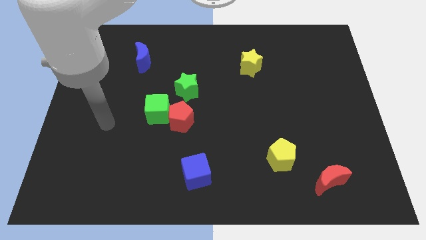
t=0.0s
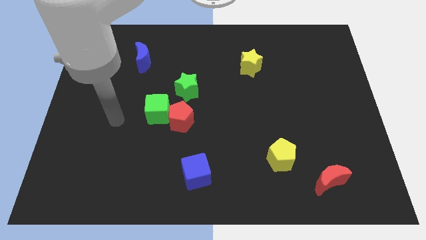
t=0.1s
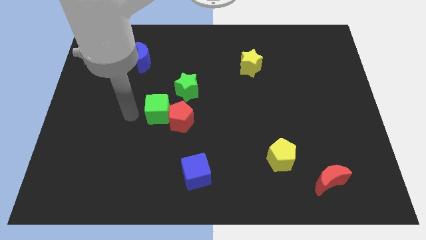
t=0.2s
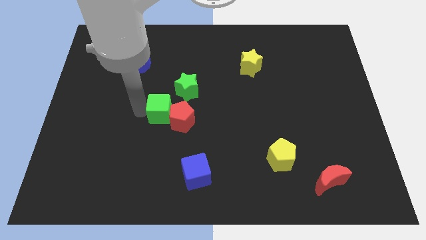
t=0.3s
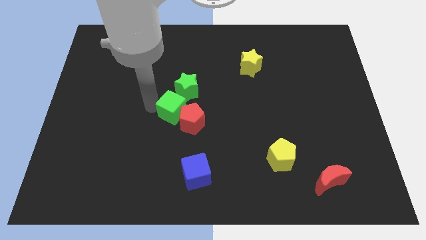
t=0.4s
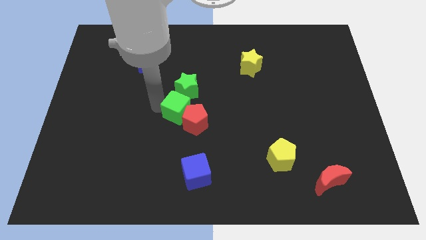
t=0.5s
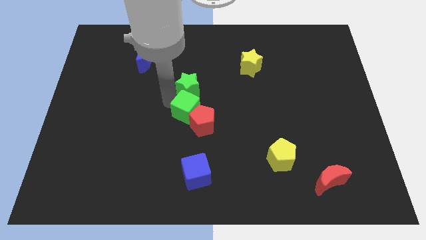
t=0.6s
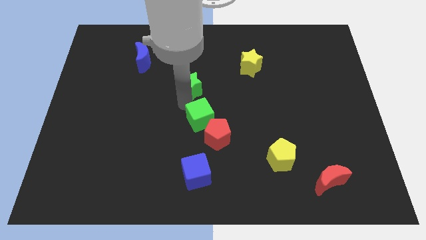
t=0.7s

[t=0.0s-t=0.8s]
separate the red pentagon from the green cube and green star

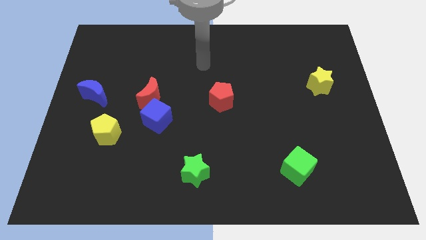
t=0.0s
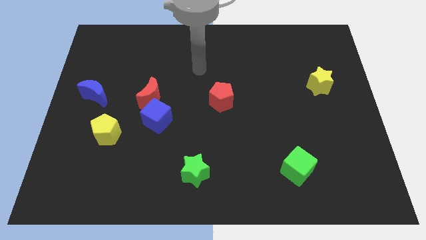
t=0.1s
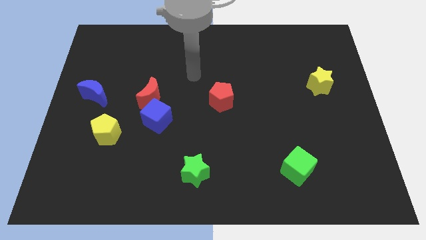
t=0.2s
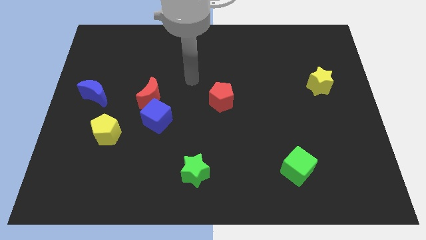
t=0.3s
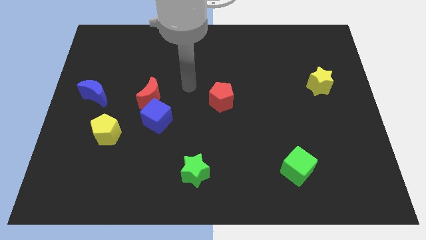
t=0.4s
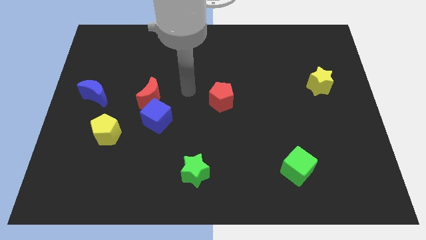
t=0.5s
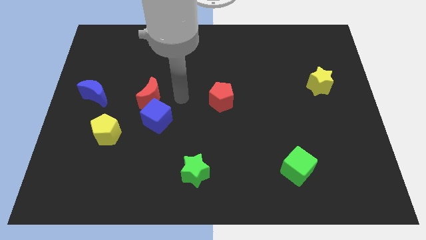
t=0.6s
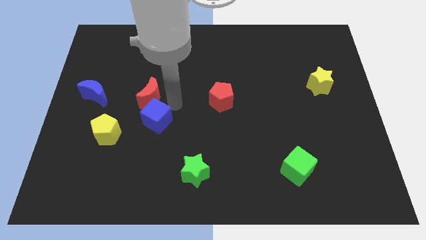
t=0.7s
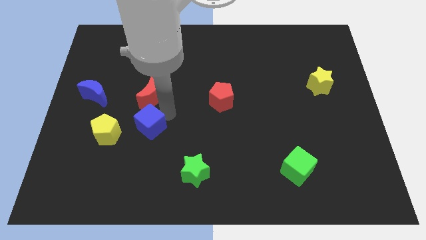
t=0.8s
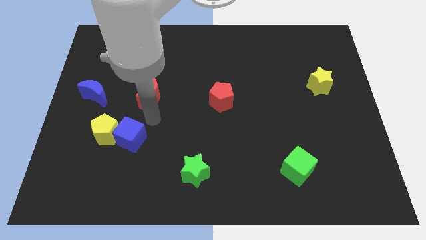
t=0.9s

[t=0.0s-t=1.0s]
pull the red moon apart from the blue cube

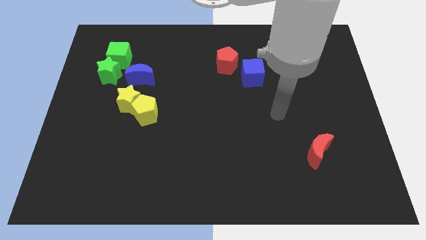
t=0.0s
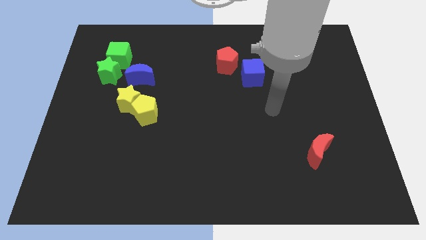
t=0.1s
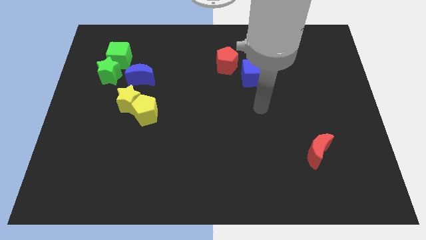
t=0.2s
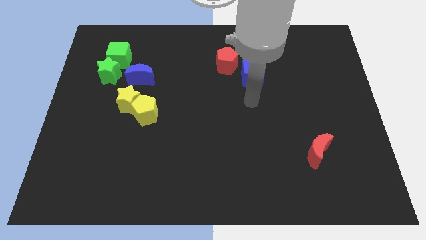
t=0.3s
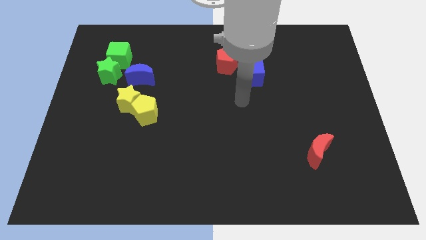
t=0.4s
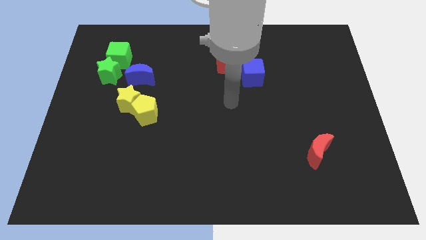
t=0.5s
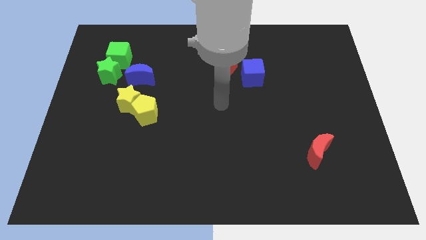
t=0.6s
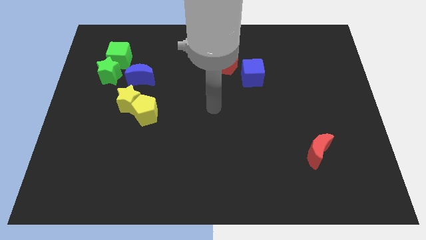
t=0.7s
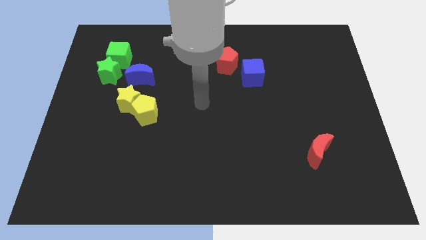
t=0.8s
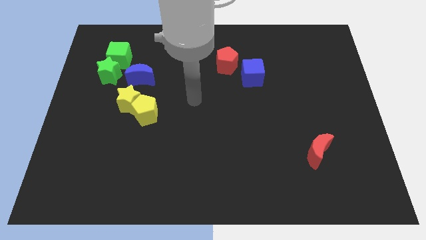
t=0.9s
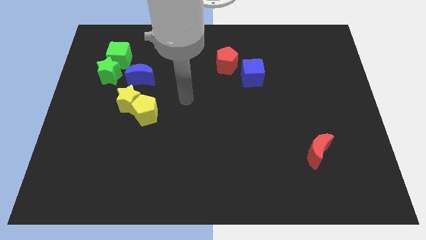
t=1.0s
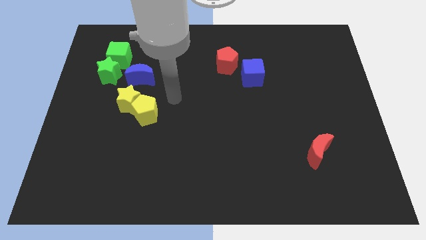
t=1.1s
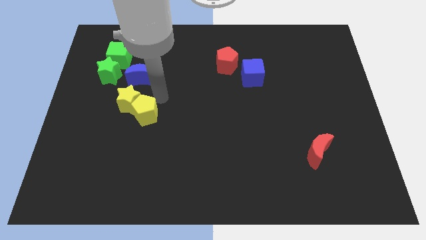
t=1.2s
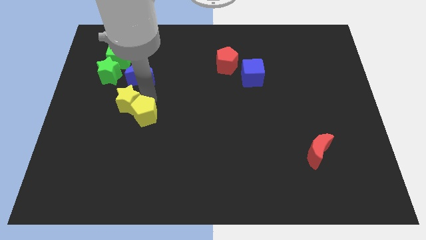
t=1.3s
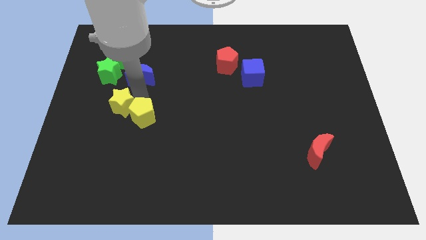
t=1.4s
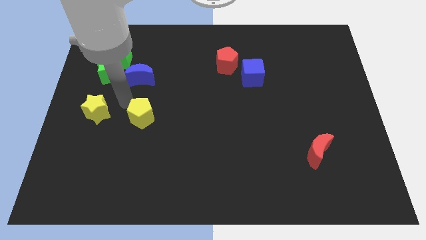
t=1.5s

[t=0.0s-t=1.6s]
move the yellow pentagon away from the yellow star

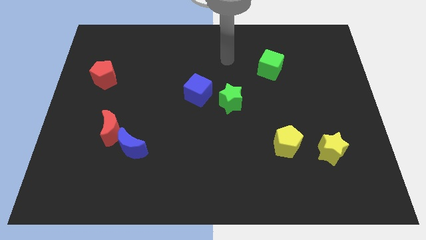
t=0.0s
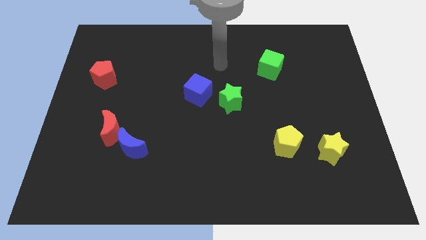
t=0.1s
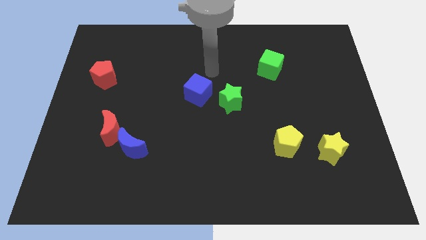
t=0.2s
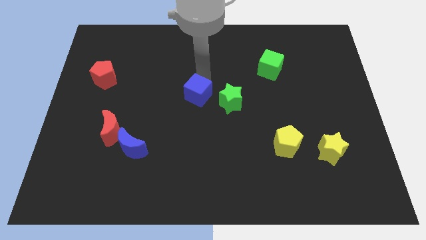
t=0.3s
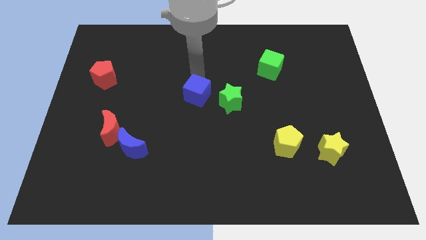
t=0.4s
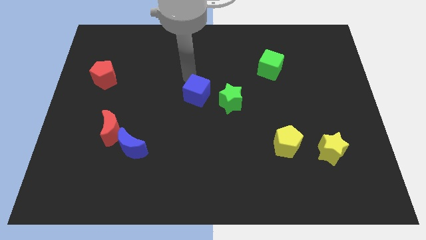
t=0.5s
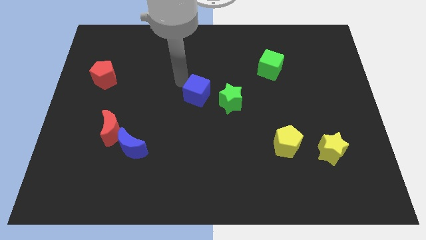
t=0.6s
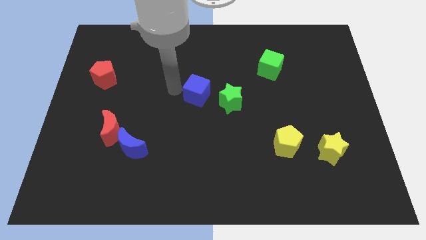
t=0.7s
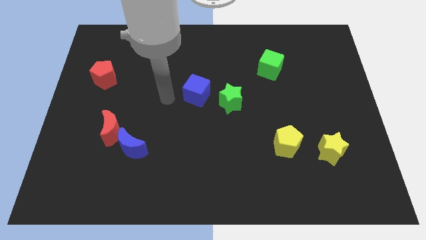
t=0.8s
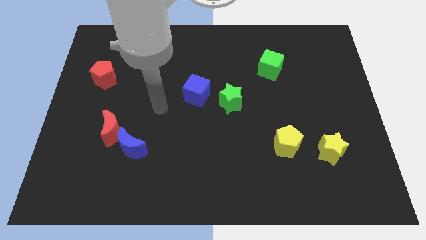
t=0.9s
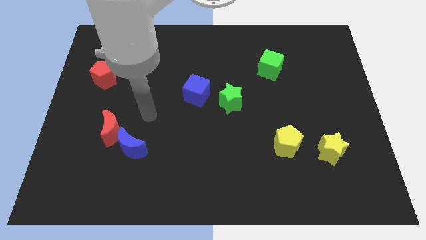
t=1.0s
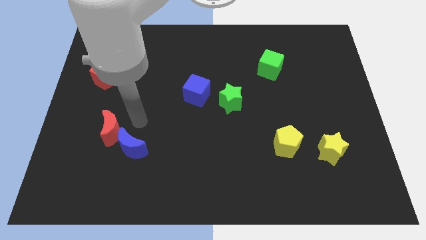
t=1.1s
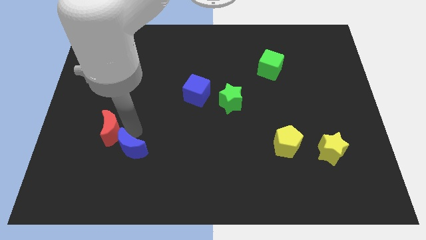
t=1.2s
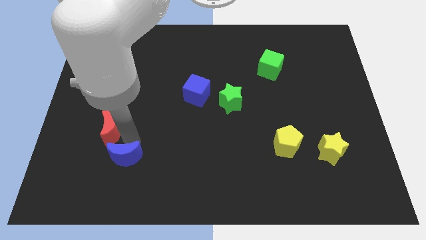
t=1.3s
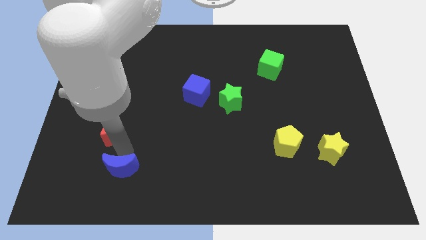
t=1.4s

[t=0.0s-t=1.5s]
pull the red moon apart from the blue moon

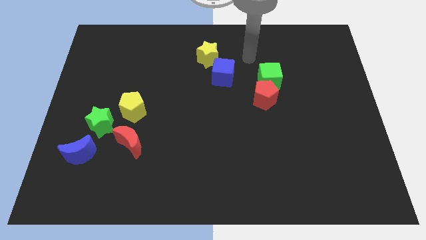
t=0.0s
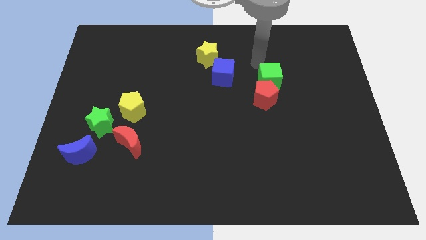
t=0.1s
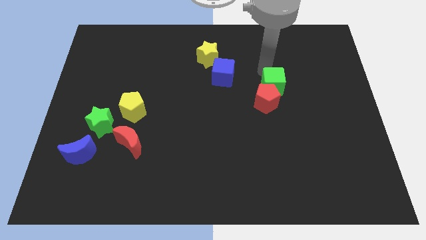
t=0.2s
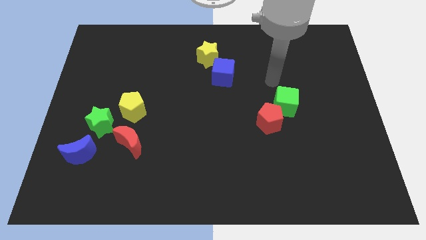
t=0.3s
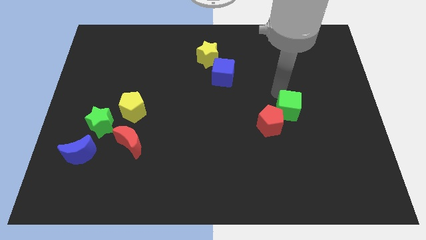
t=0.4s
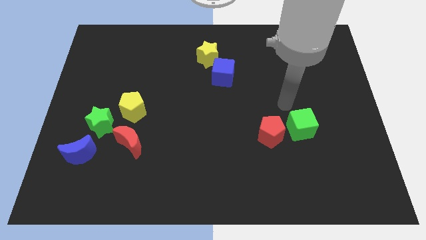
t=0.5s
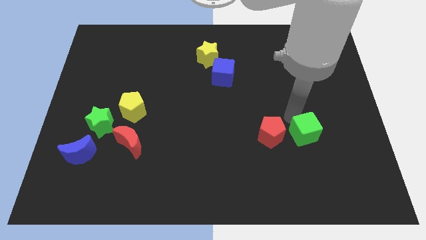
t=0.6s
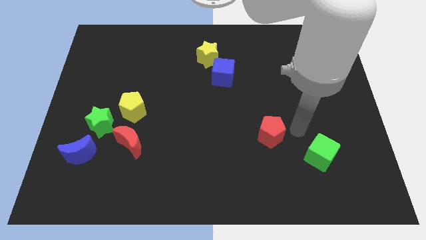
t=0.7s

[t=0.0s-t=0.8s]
separate the red pentagon from the green cube

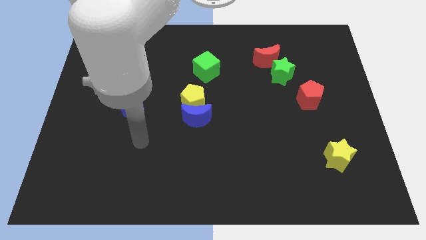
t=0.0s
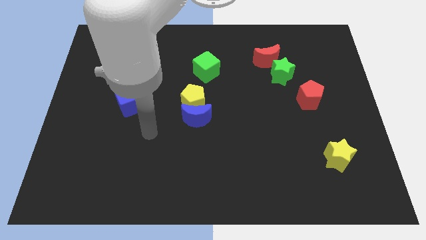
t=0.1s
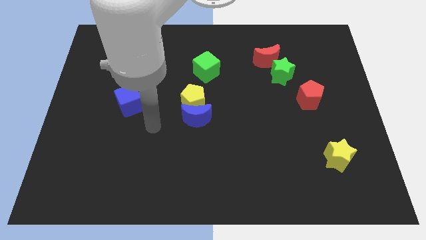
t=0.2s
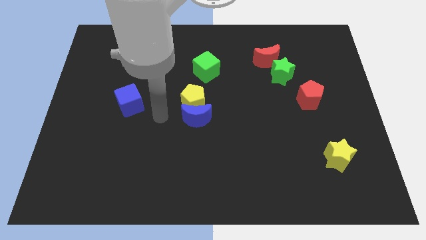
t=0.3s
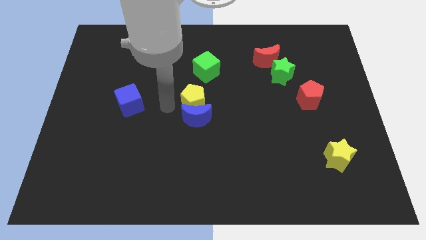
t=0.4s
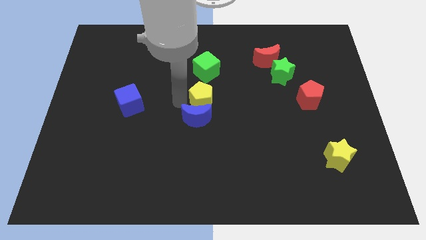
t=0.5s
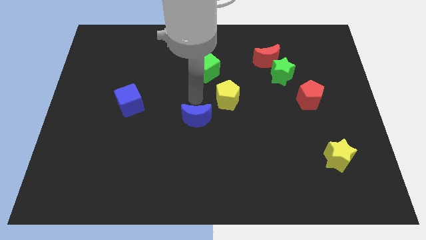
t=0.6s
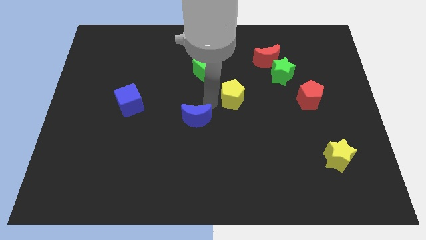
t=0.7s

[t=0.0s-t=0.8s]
move the blue moon away from the yellow pentagon

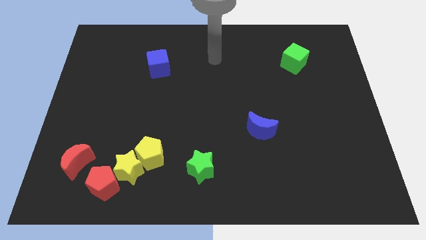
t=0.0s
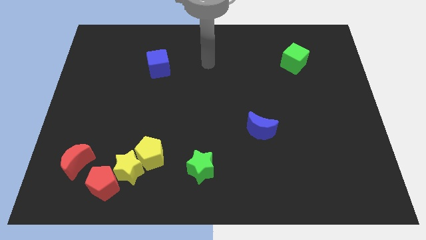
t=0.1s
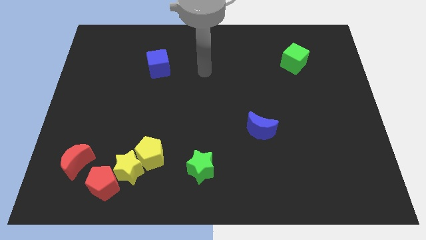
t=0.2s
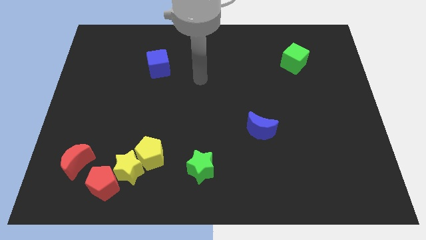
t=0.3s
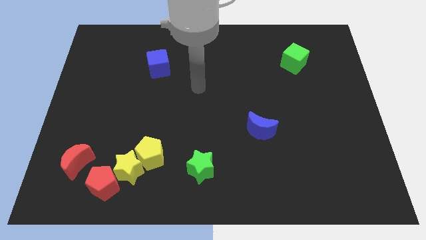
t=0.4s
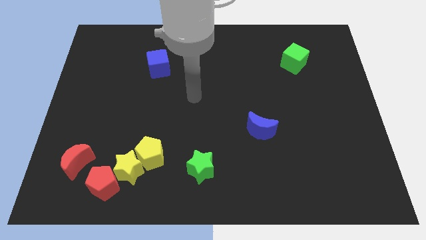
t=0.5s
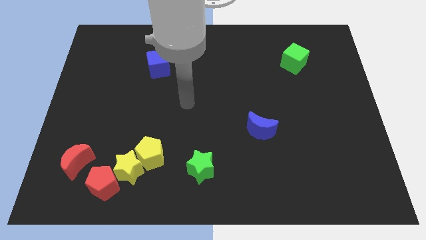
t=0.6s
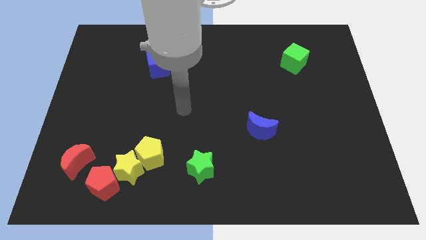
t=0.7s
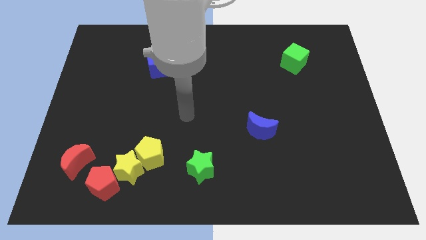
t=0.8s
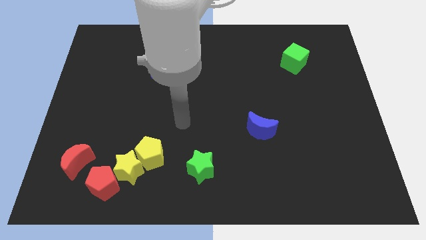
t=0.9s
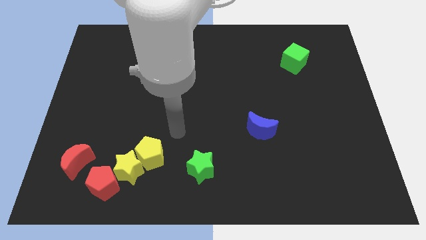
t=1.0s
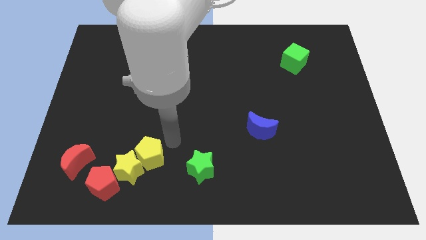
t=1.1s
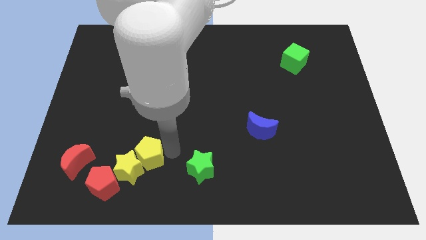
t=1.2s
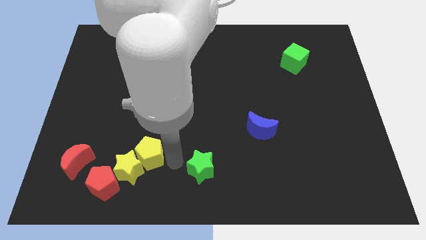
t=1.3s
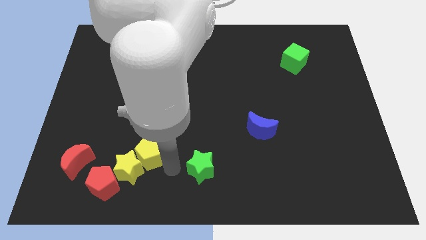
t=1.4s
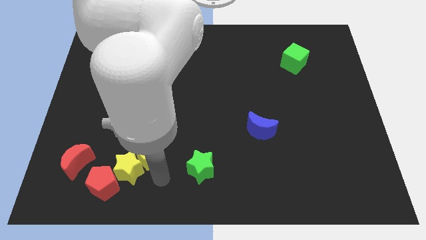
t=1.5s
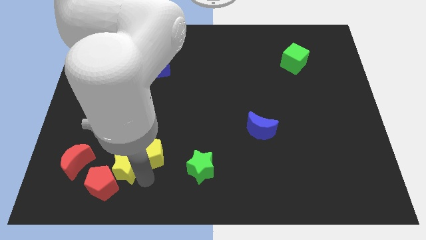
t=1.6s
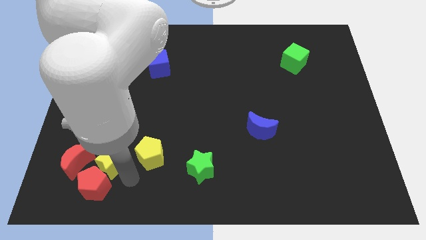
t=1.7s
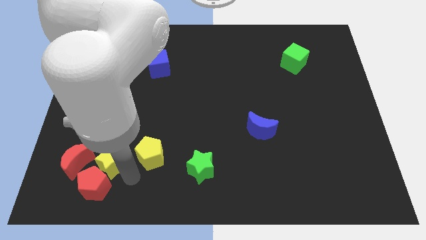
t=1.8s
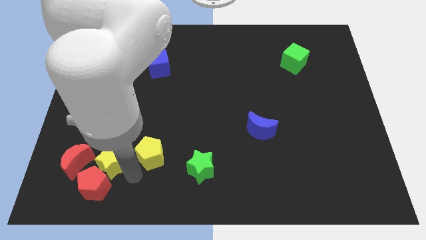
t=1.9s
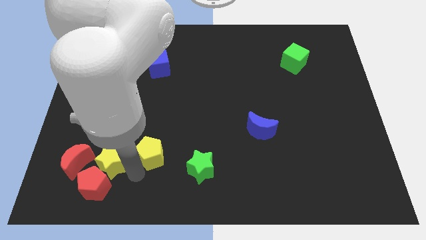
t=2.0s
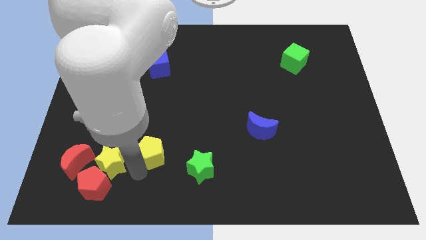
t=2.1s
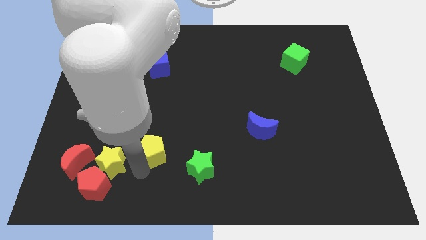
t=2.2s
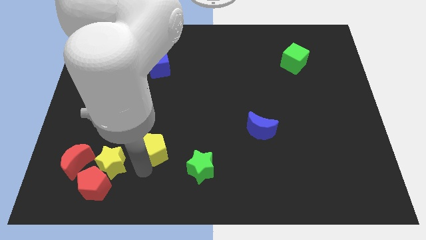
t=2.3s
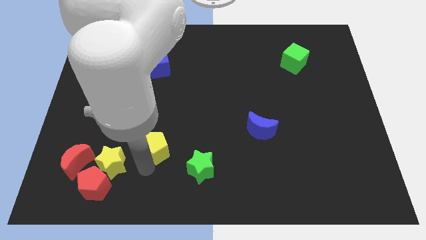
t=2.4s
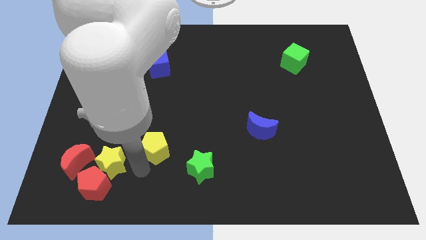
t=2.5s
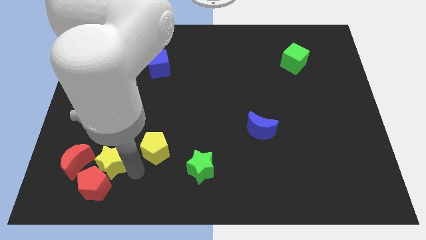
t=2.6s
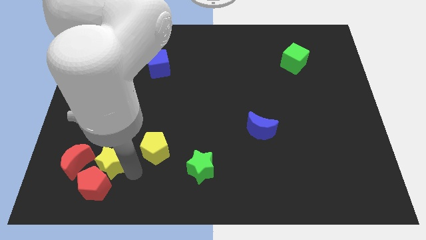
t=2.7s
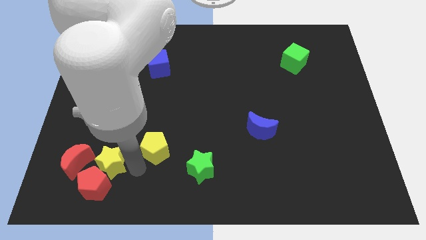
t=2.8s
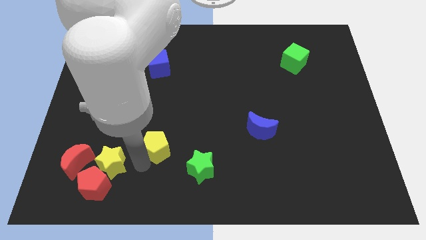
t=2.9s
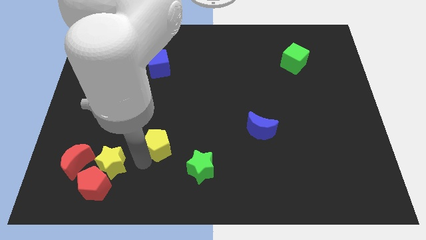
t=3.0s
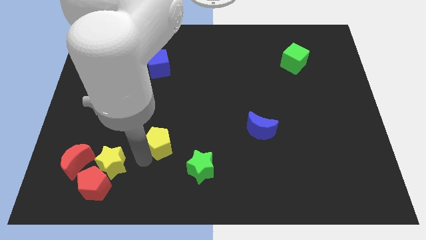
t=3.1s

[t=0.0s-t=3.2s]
pull the yellow pentagon apart from the yellow star
